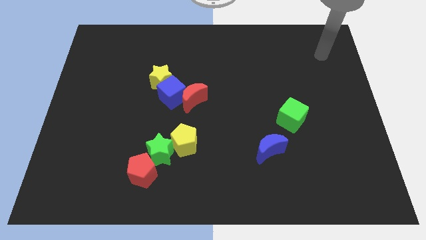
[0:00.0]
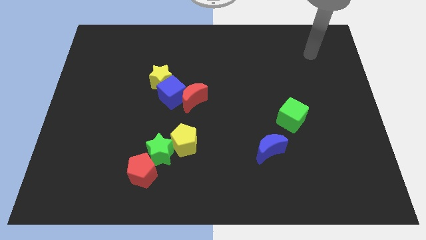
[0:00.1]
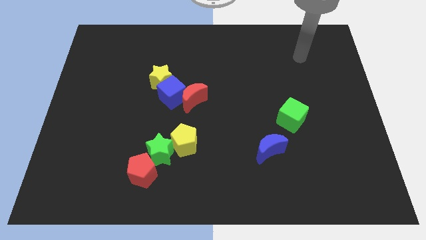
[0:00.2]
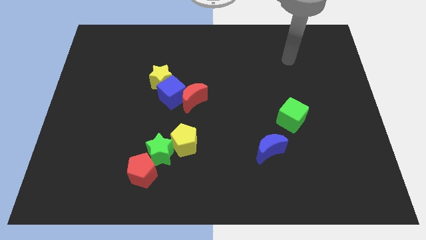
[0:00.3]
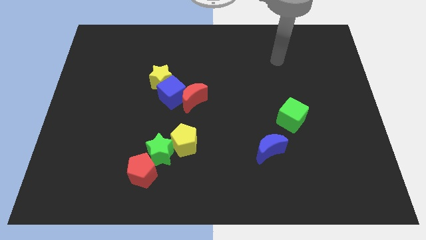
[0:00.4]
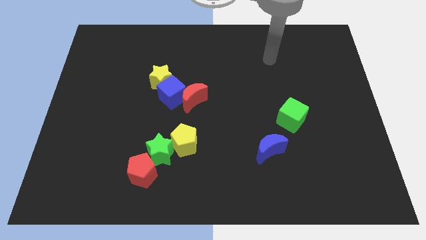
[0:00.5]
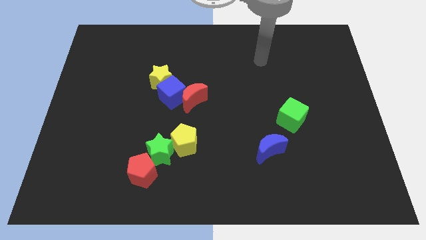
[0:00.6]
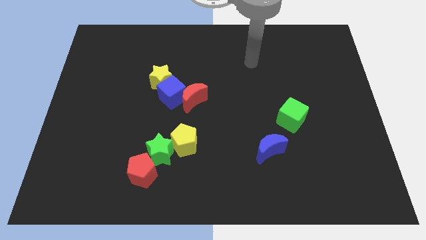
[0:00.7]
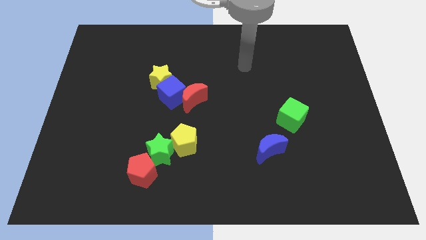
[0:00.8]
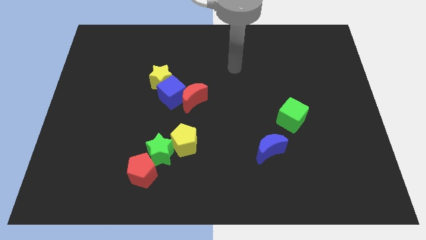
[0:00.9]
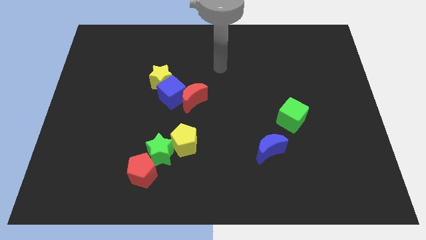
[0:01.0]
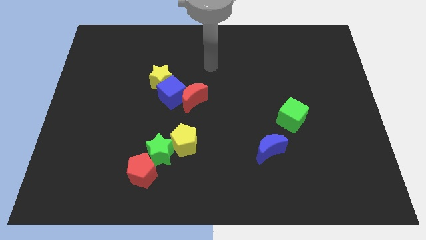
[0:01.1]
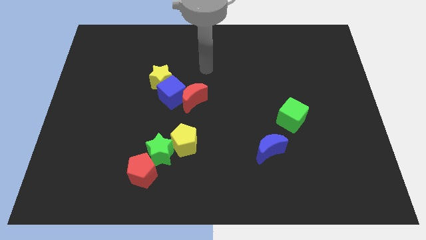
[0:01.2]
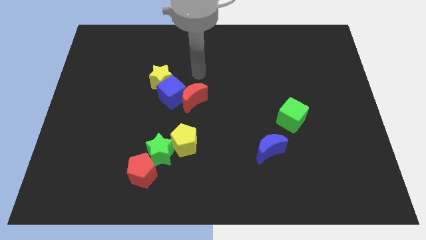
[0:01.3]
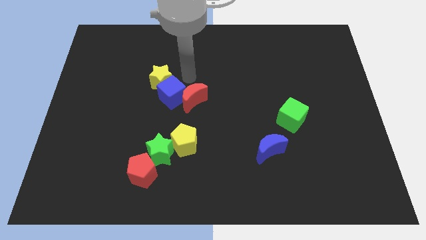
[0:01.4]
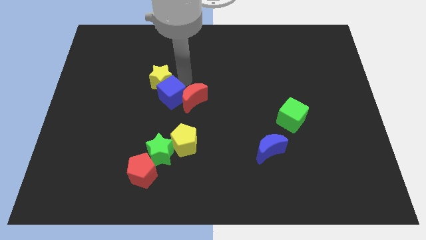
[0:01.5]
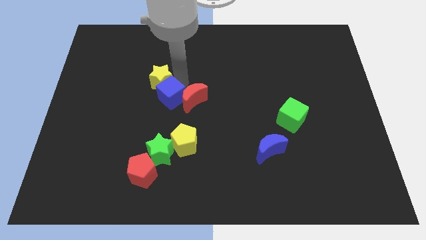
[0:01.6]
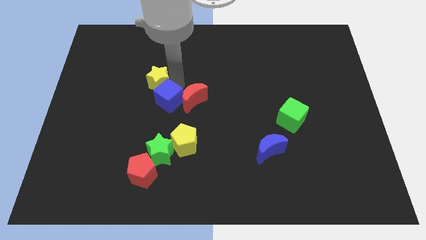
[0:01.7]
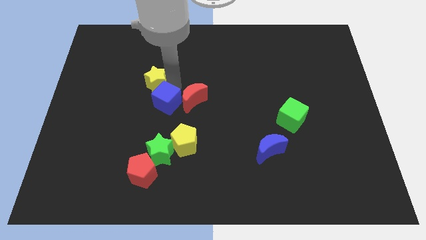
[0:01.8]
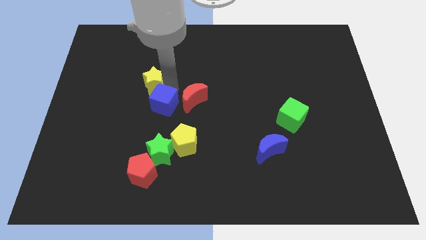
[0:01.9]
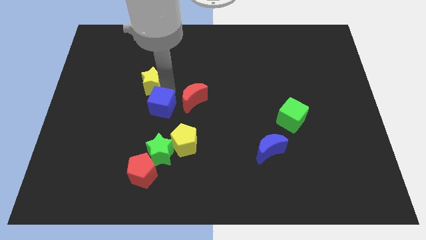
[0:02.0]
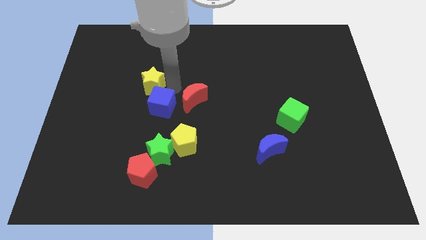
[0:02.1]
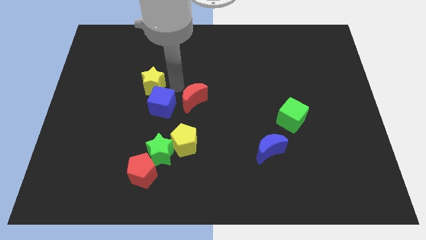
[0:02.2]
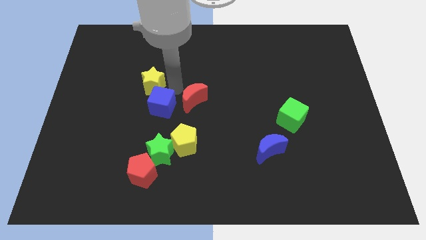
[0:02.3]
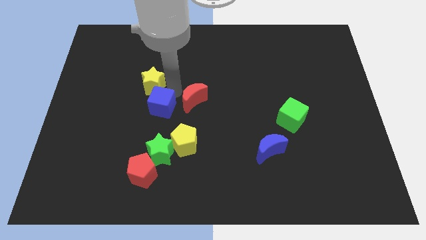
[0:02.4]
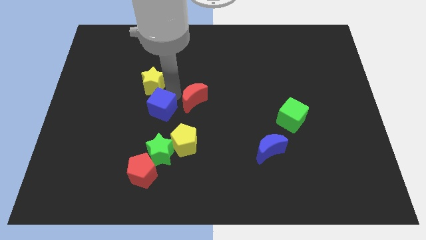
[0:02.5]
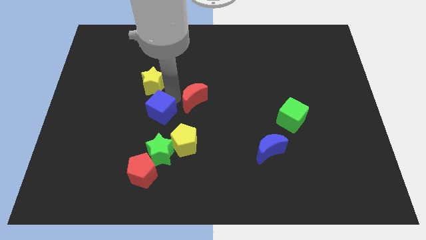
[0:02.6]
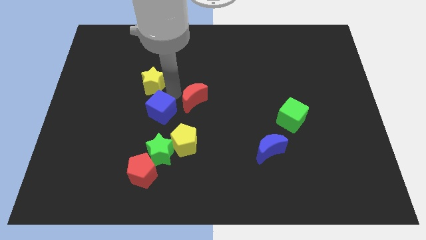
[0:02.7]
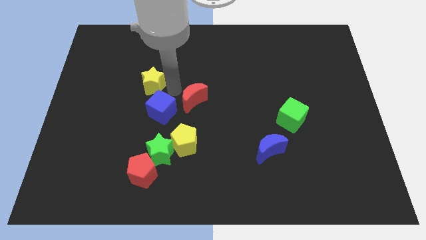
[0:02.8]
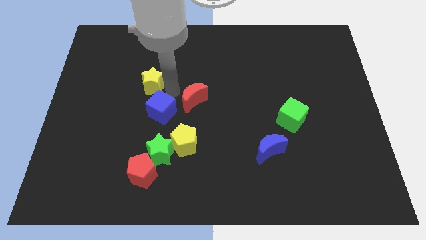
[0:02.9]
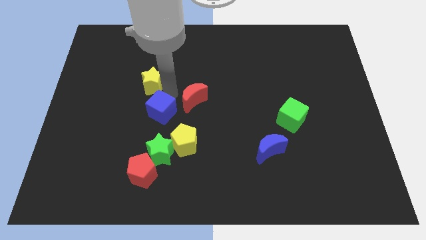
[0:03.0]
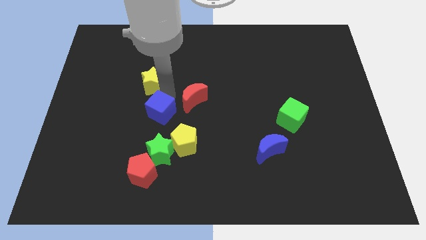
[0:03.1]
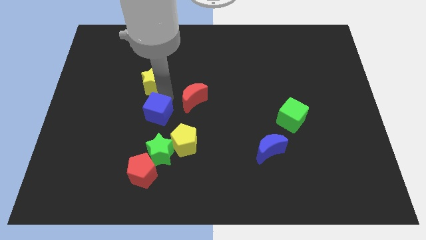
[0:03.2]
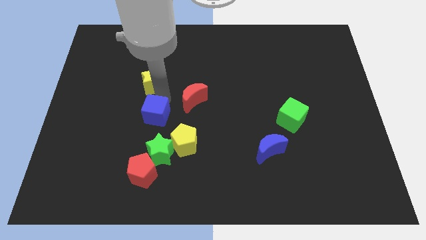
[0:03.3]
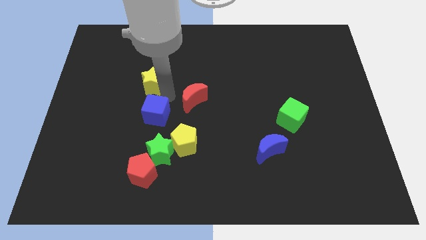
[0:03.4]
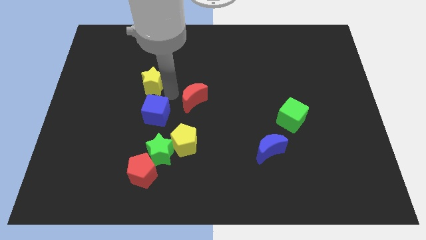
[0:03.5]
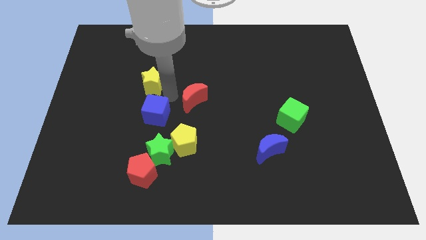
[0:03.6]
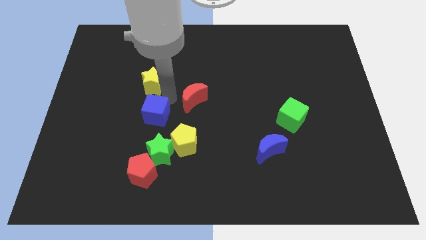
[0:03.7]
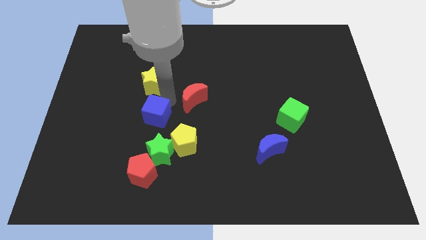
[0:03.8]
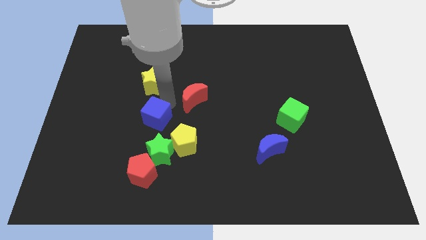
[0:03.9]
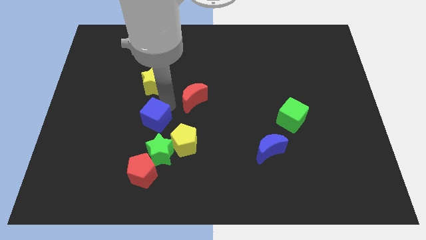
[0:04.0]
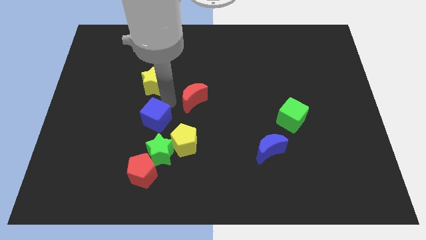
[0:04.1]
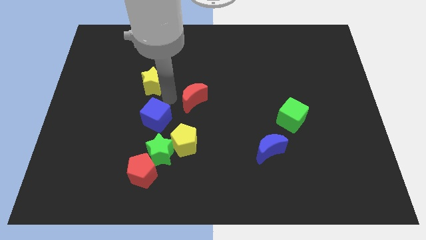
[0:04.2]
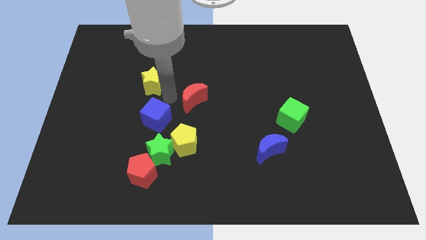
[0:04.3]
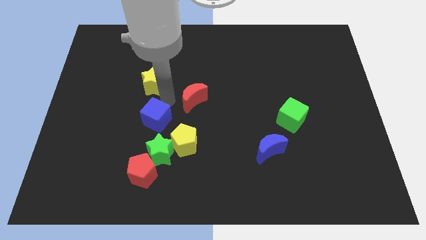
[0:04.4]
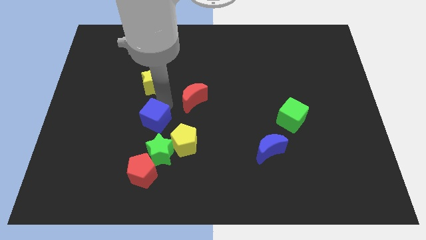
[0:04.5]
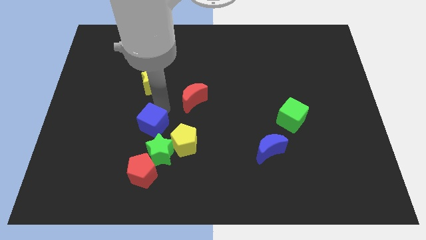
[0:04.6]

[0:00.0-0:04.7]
move the blue cube away from the red moon and yellow star

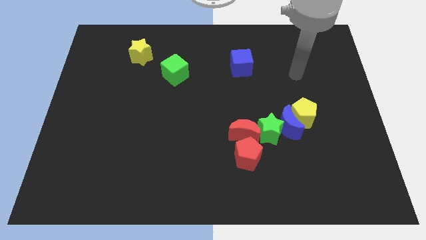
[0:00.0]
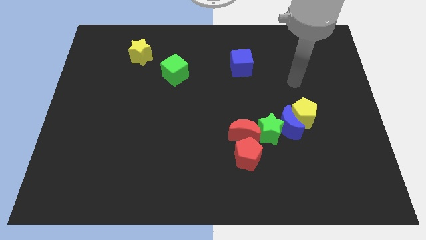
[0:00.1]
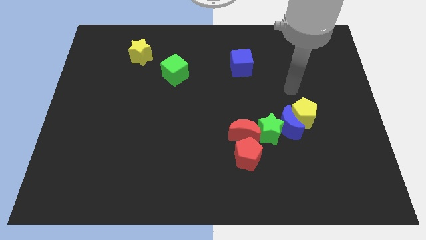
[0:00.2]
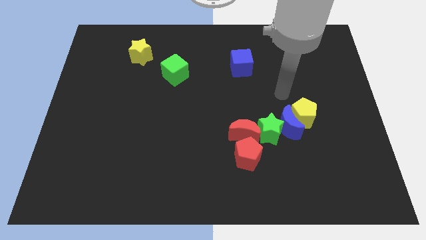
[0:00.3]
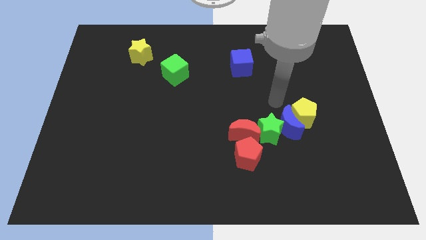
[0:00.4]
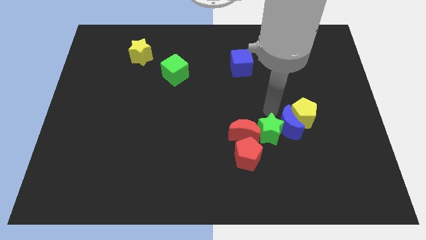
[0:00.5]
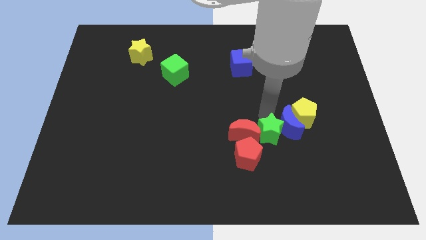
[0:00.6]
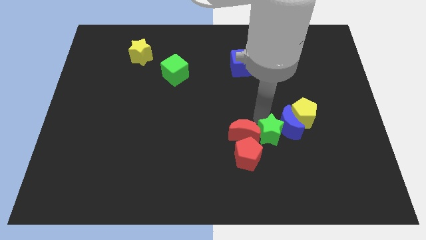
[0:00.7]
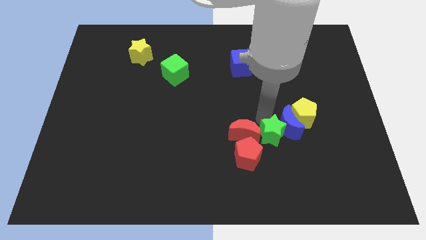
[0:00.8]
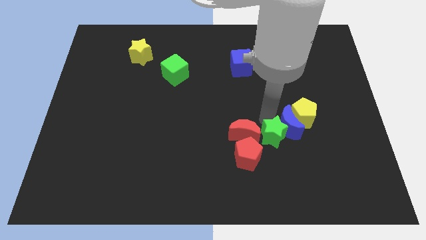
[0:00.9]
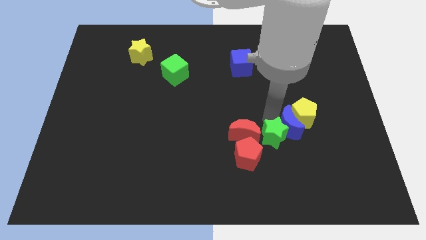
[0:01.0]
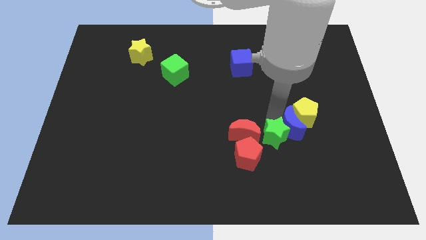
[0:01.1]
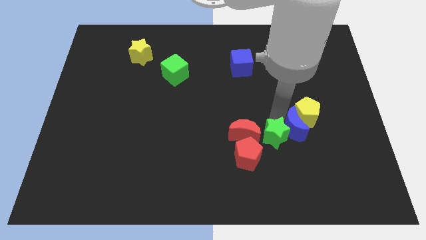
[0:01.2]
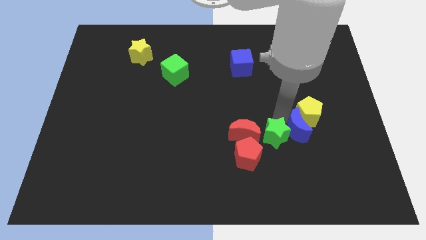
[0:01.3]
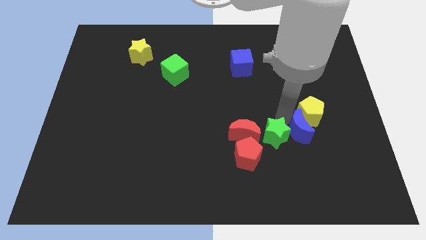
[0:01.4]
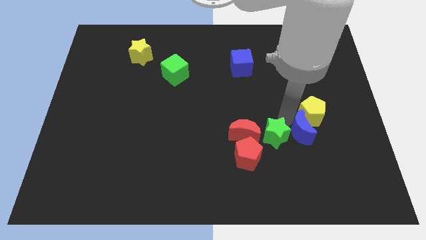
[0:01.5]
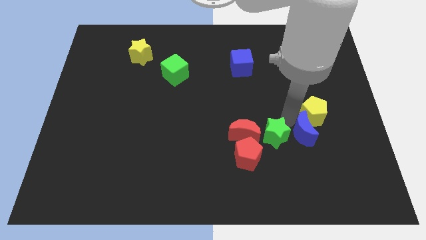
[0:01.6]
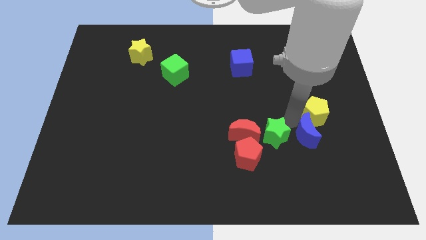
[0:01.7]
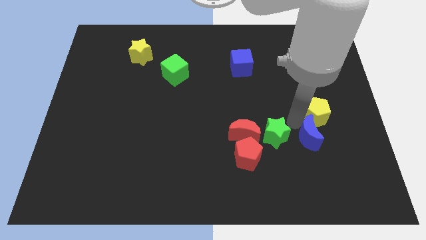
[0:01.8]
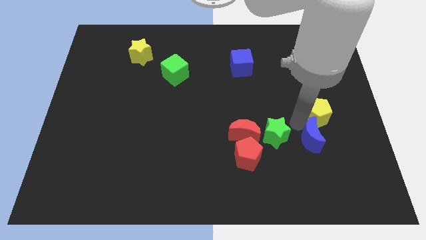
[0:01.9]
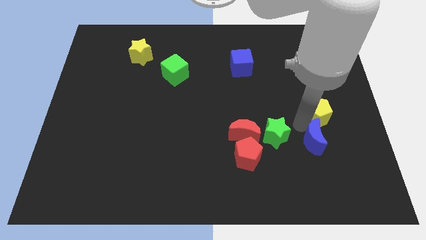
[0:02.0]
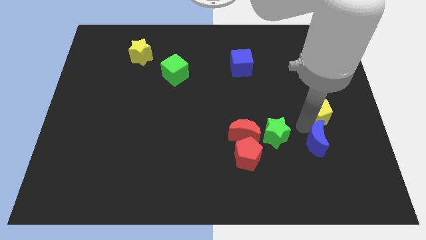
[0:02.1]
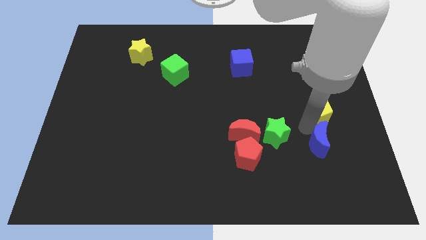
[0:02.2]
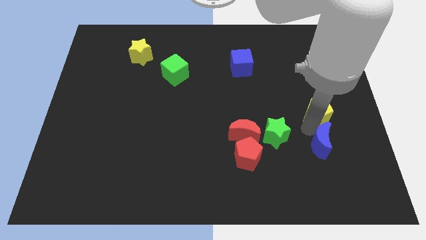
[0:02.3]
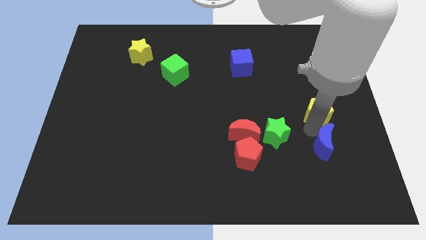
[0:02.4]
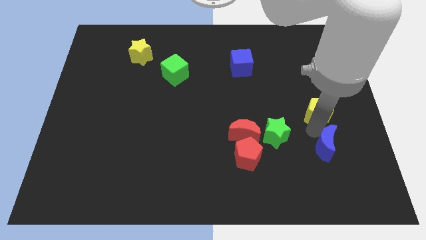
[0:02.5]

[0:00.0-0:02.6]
move the blue moon away from the group

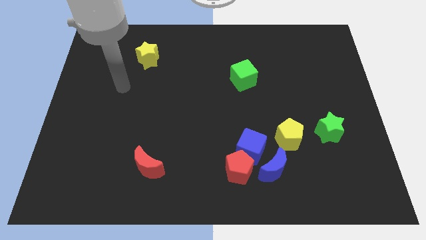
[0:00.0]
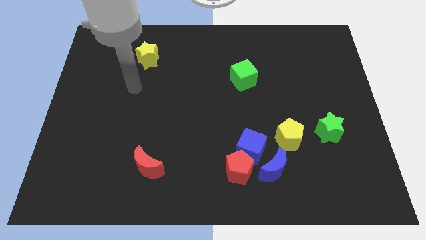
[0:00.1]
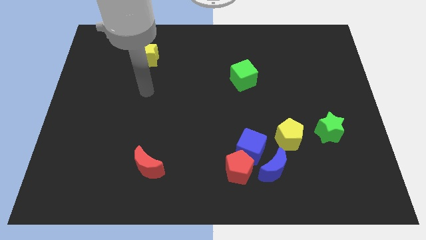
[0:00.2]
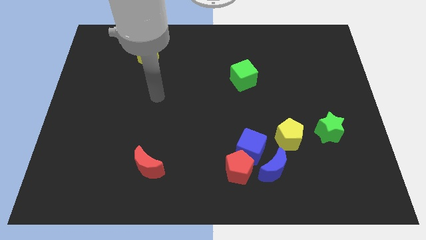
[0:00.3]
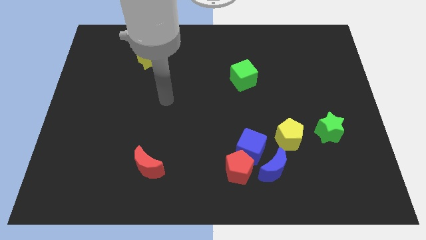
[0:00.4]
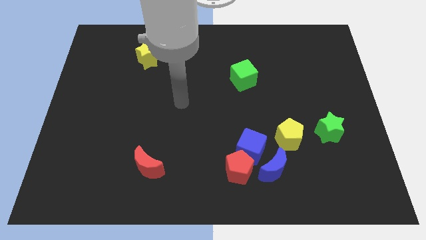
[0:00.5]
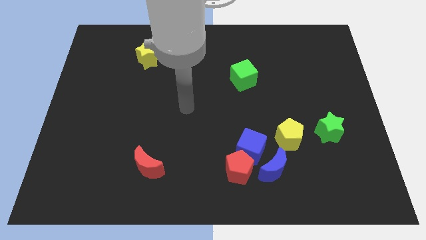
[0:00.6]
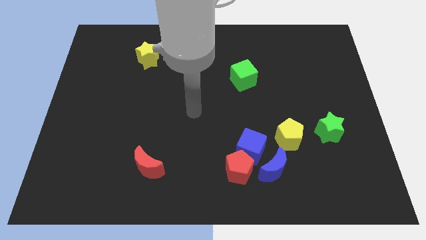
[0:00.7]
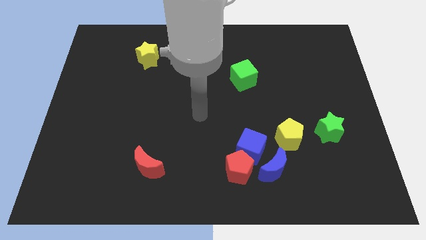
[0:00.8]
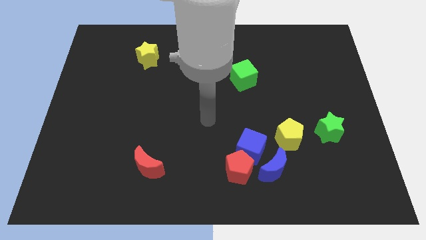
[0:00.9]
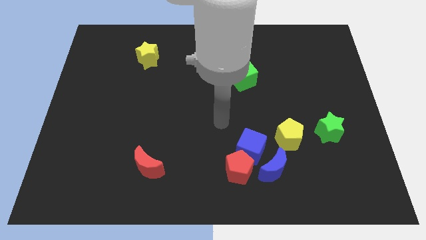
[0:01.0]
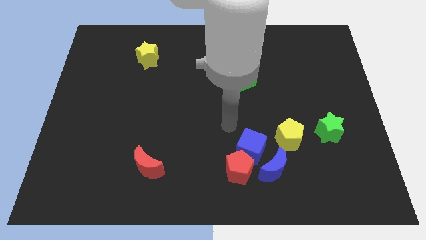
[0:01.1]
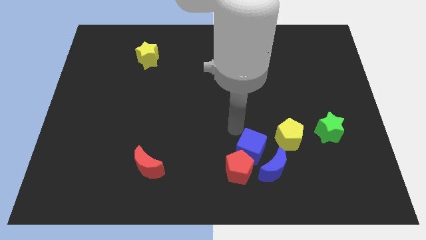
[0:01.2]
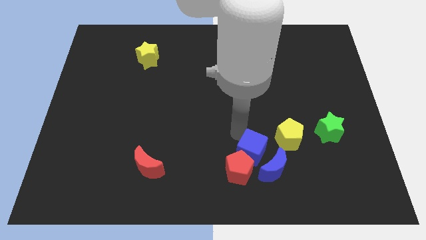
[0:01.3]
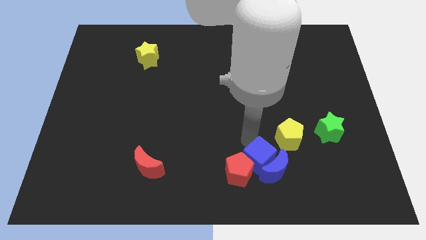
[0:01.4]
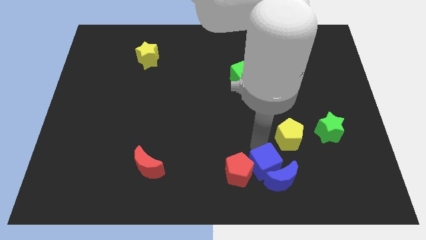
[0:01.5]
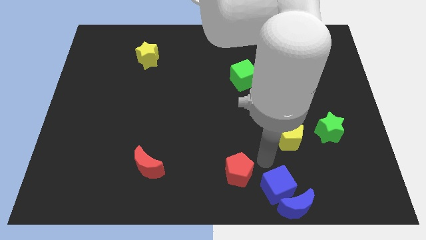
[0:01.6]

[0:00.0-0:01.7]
pull the red pentagon apart from the blue cube and blue moon

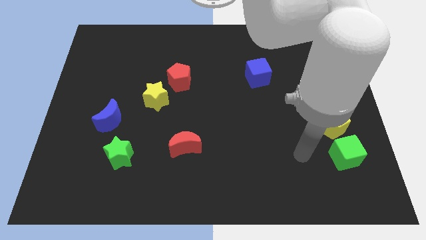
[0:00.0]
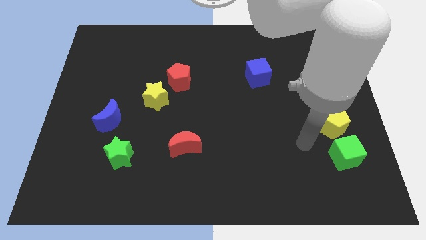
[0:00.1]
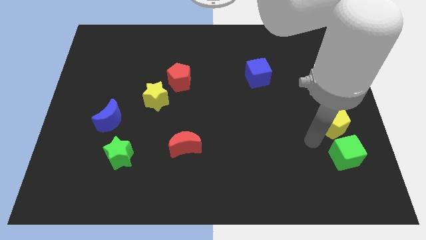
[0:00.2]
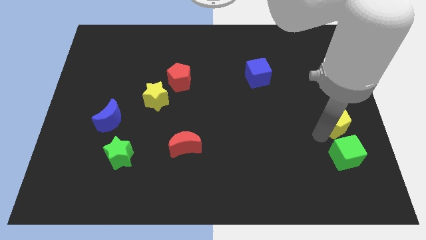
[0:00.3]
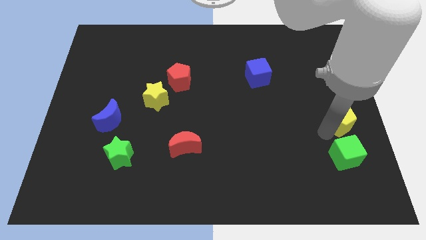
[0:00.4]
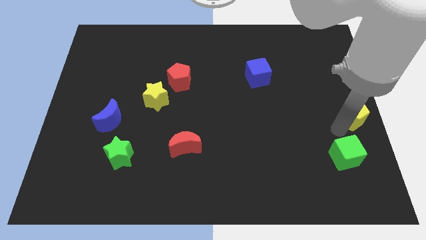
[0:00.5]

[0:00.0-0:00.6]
pull the green cube apart from the yellow pentagon
